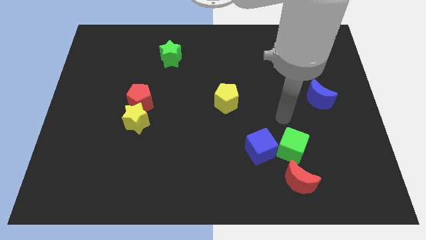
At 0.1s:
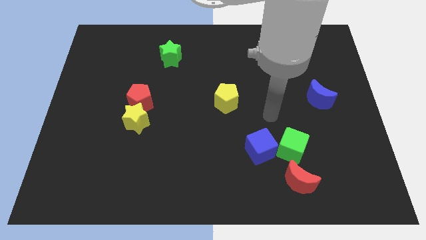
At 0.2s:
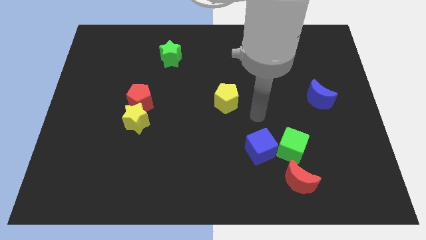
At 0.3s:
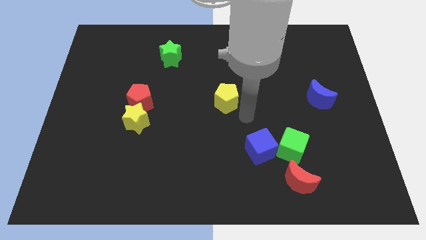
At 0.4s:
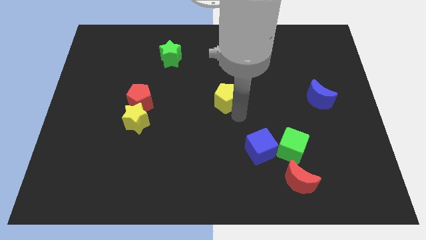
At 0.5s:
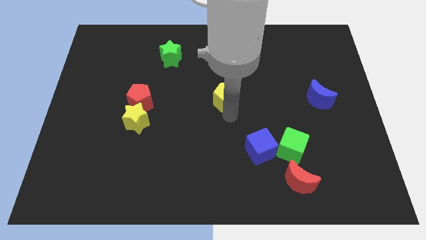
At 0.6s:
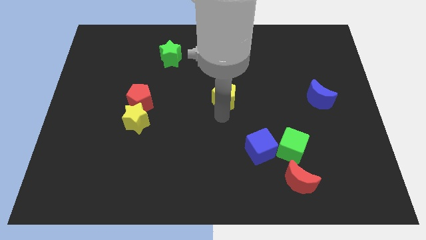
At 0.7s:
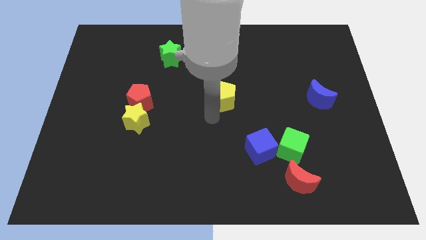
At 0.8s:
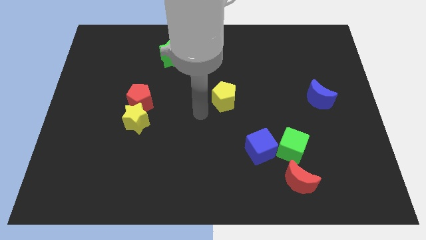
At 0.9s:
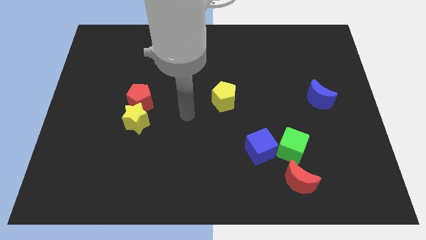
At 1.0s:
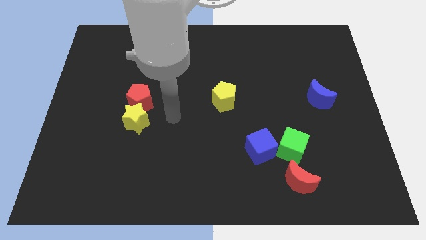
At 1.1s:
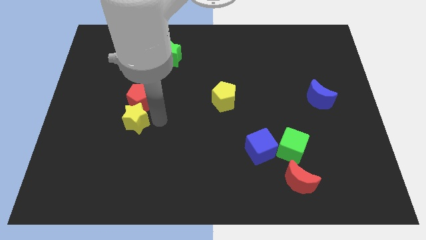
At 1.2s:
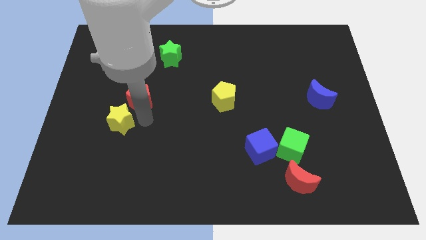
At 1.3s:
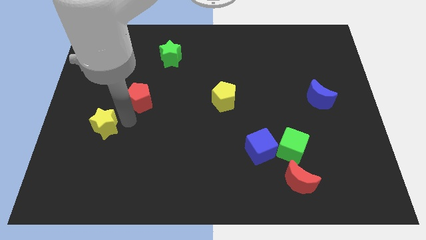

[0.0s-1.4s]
pull the red pentagon apart from the yellow star

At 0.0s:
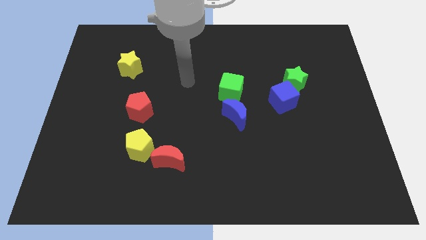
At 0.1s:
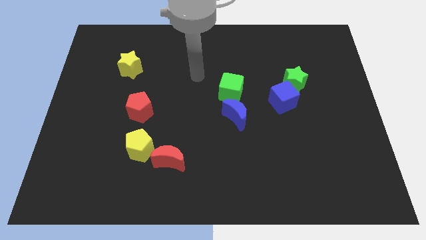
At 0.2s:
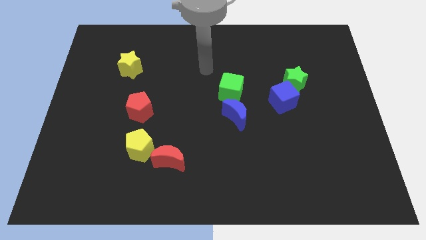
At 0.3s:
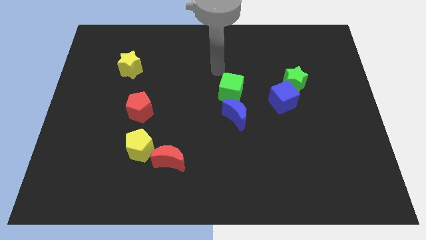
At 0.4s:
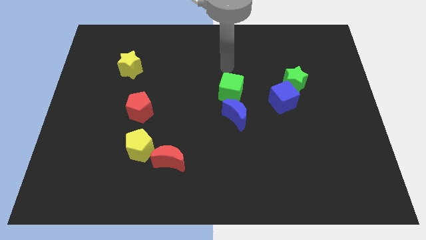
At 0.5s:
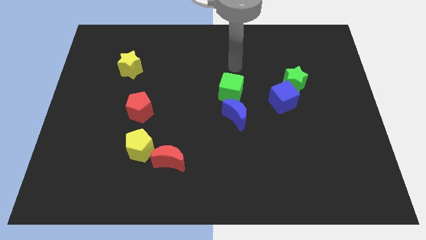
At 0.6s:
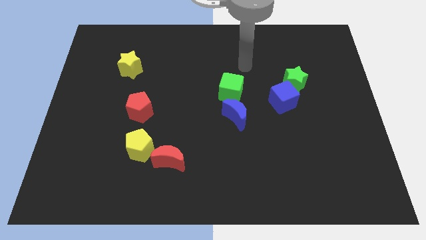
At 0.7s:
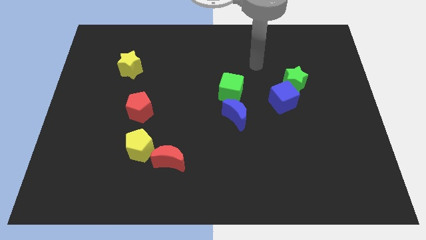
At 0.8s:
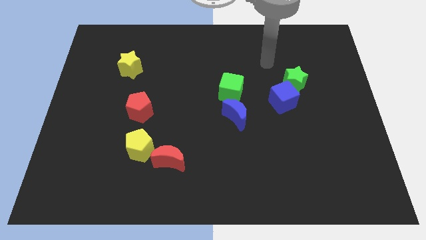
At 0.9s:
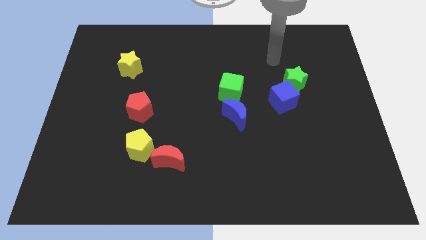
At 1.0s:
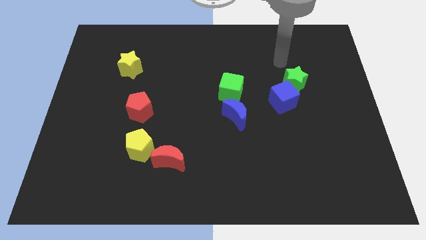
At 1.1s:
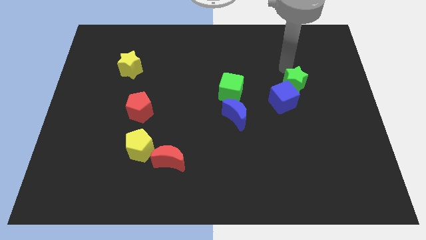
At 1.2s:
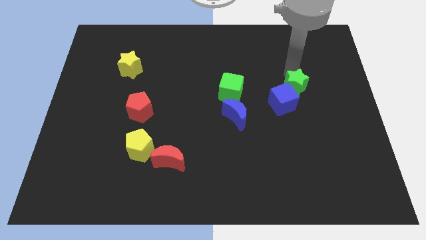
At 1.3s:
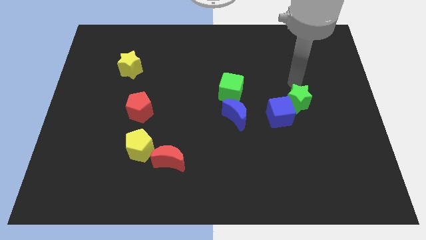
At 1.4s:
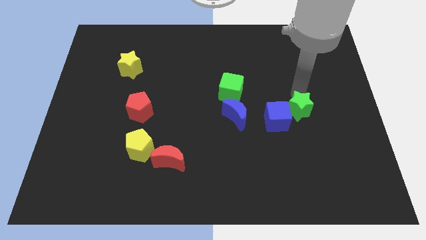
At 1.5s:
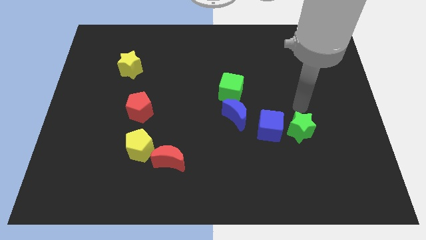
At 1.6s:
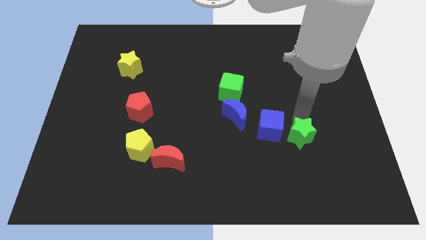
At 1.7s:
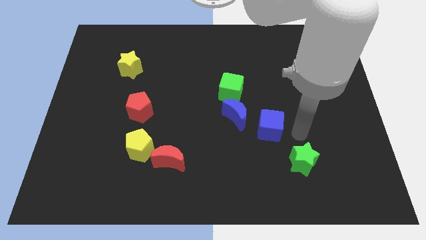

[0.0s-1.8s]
move the blue cube away from the green star

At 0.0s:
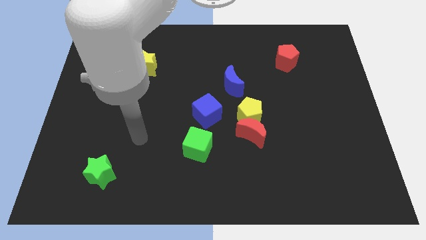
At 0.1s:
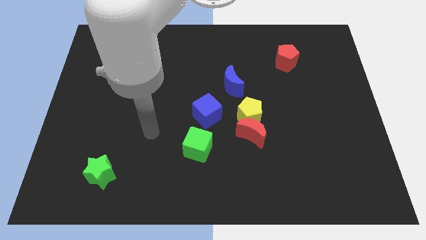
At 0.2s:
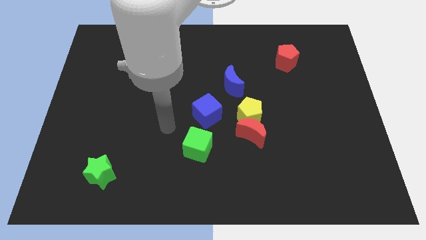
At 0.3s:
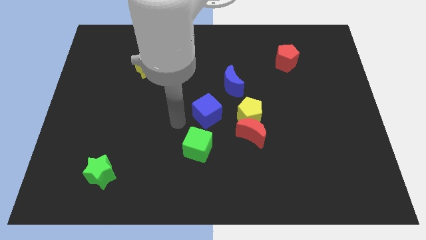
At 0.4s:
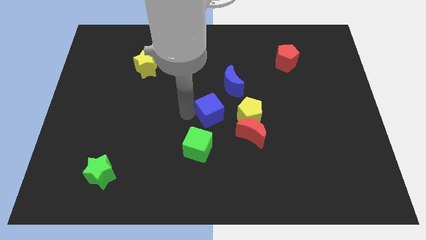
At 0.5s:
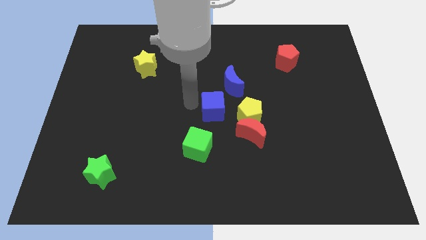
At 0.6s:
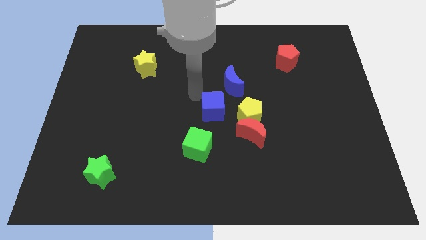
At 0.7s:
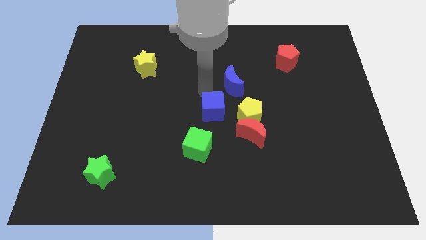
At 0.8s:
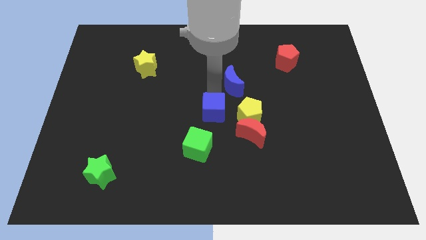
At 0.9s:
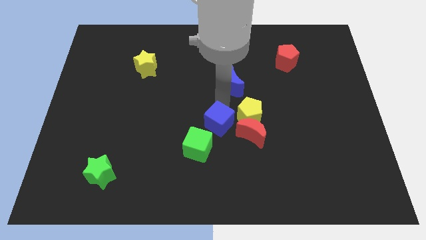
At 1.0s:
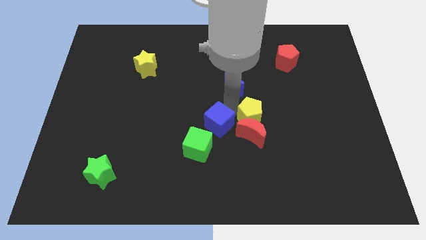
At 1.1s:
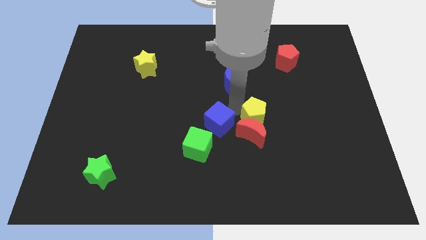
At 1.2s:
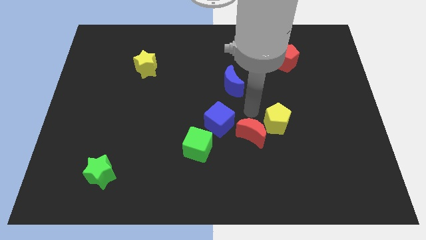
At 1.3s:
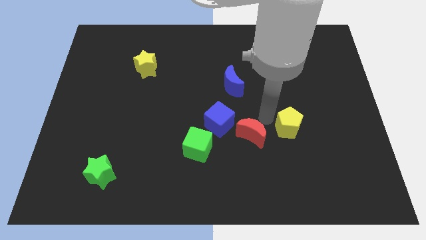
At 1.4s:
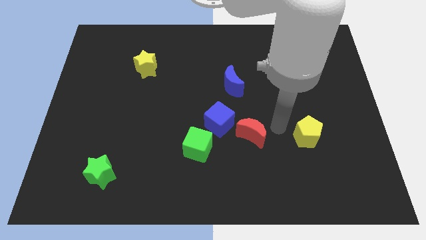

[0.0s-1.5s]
separate the red moon from the yellow pentagon

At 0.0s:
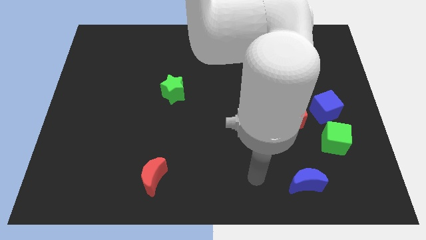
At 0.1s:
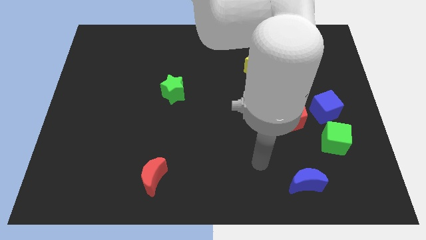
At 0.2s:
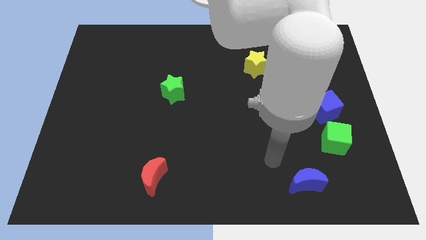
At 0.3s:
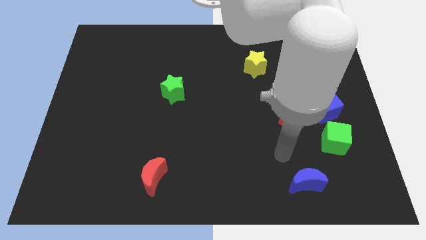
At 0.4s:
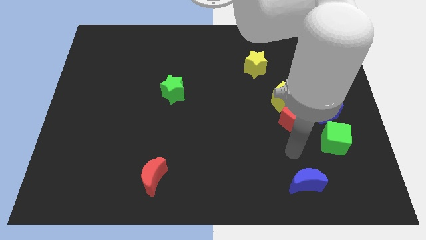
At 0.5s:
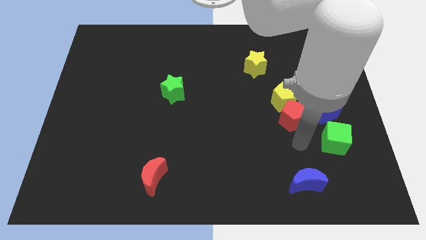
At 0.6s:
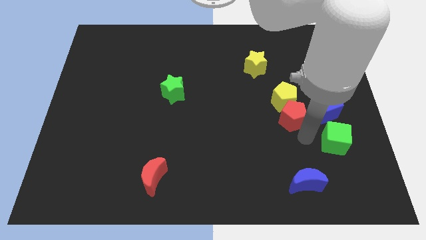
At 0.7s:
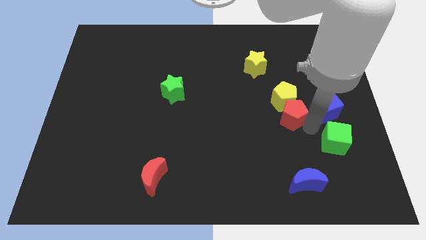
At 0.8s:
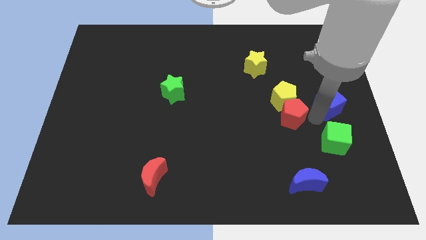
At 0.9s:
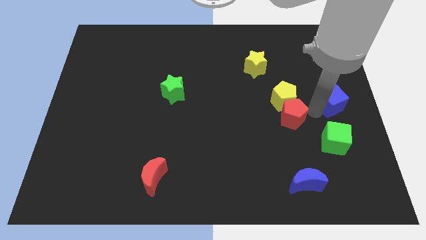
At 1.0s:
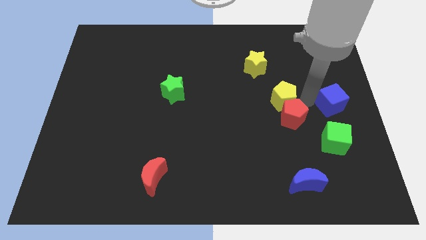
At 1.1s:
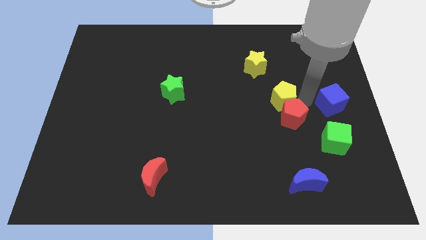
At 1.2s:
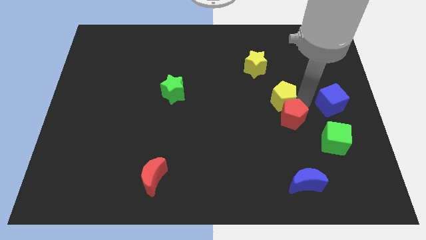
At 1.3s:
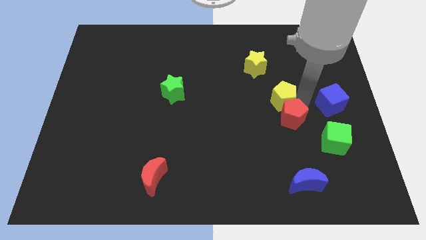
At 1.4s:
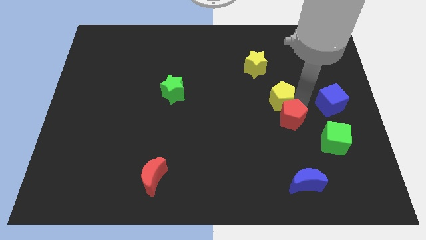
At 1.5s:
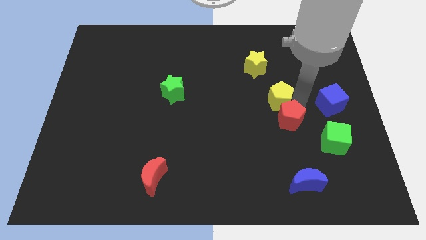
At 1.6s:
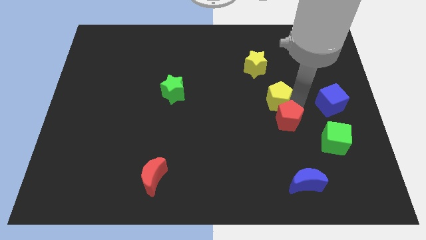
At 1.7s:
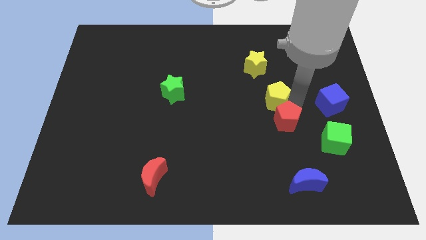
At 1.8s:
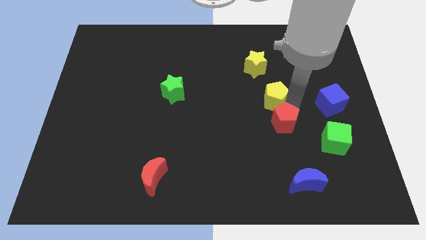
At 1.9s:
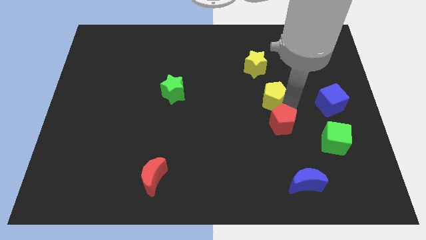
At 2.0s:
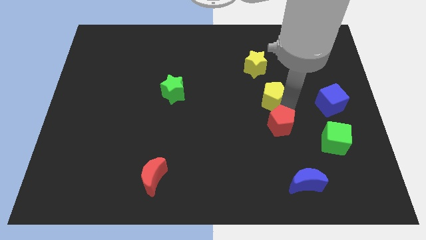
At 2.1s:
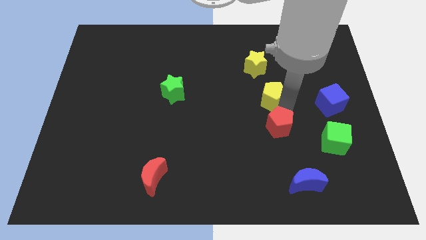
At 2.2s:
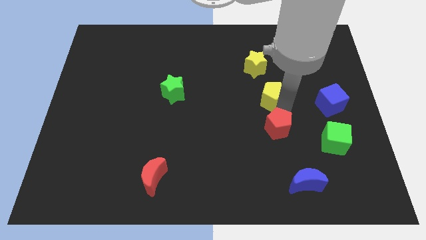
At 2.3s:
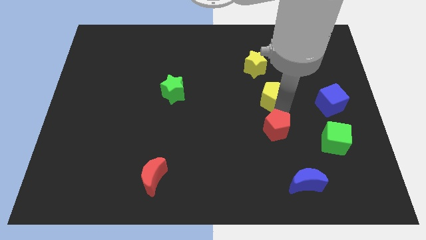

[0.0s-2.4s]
pull the red pentagon apart from the yellow pentagon and blue cube

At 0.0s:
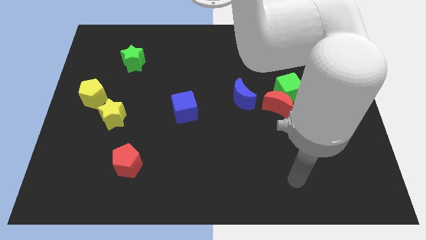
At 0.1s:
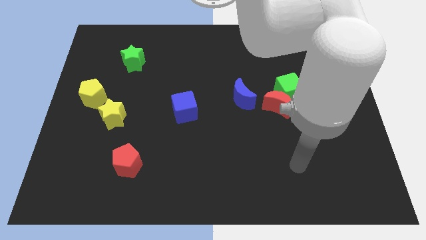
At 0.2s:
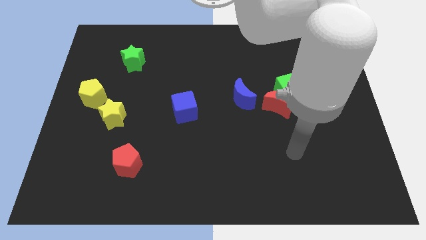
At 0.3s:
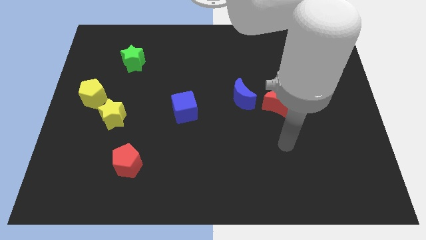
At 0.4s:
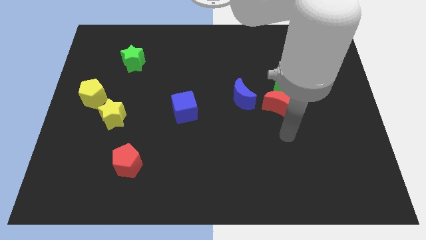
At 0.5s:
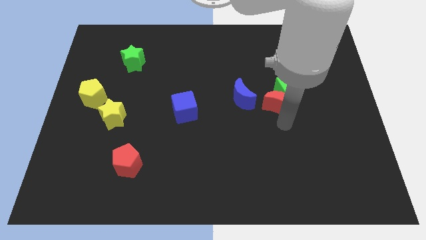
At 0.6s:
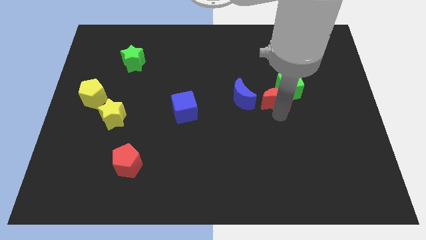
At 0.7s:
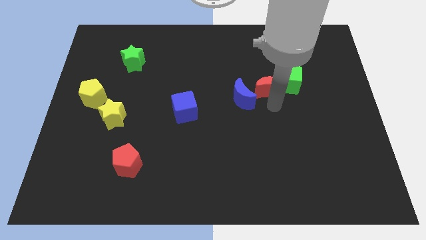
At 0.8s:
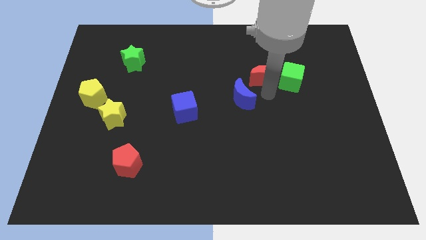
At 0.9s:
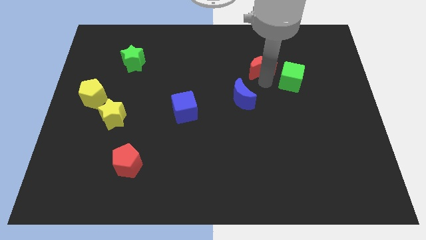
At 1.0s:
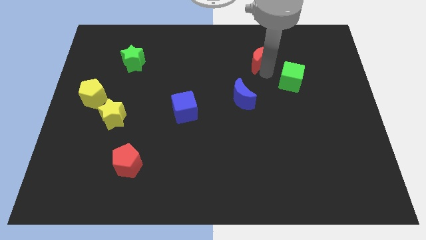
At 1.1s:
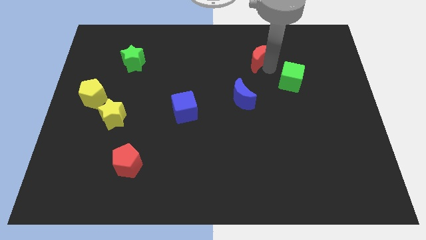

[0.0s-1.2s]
separate the green cube from the red moon

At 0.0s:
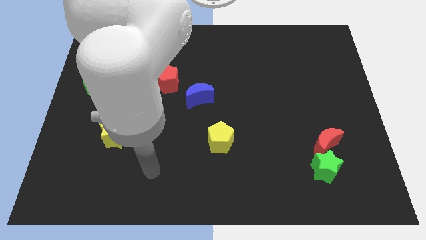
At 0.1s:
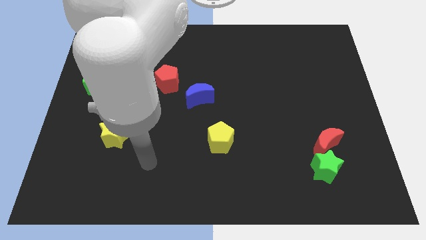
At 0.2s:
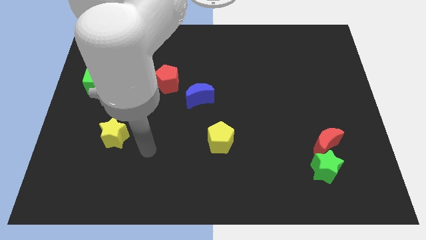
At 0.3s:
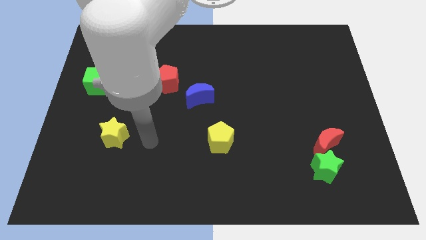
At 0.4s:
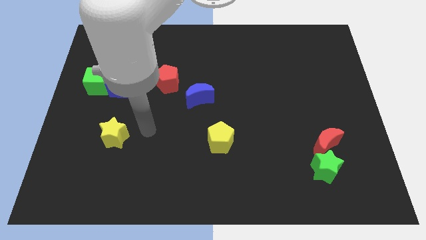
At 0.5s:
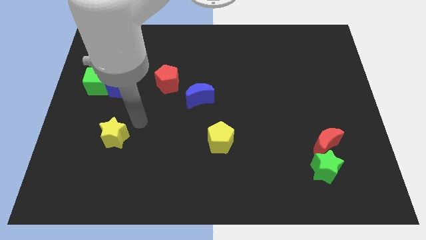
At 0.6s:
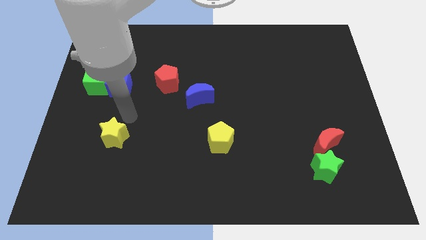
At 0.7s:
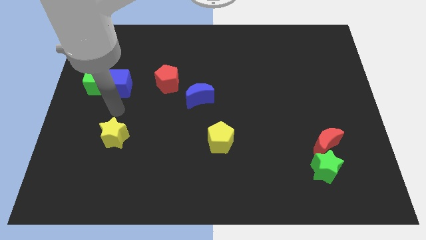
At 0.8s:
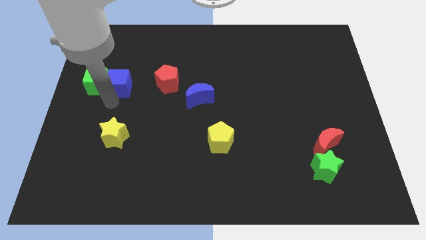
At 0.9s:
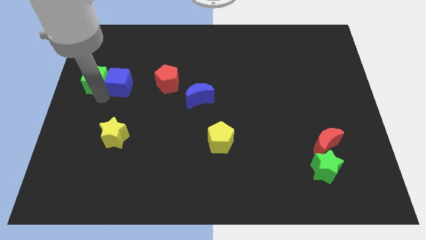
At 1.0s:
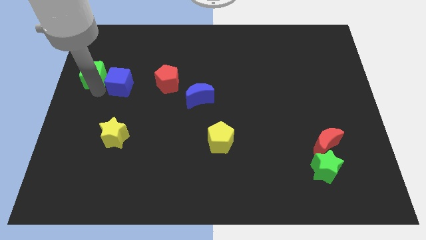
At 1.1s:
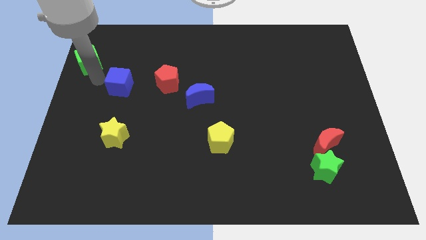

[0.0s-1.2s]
move the blue cube away from the green cube

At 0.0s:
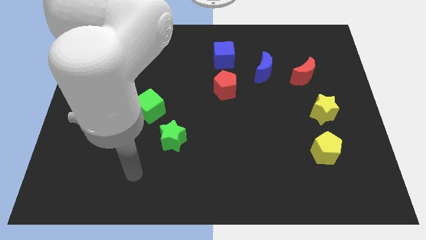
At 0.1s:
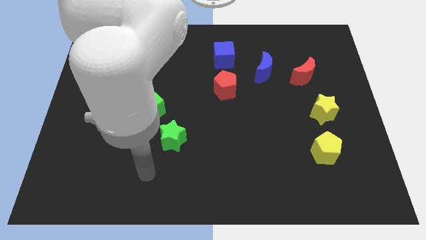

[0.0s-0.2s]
separate the red moon from the blue moon
